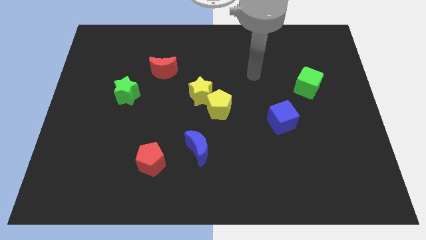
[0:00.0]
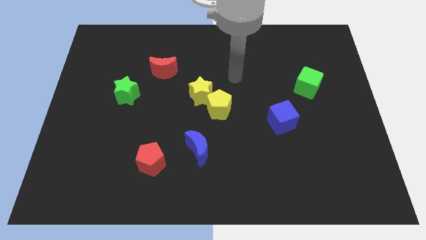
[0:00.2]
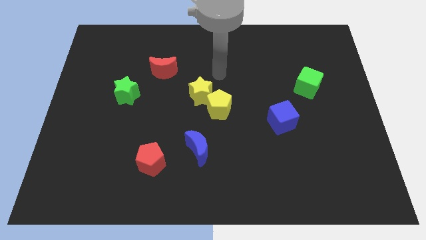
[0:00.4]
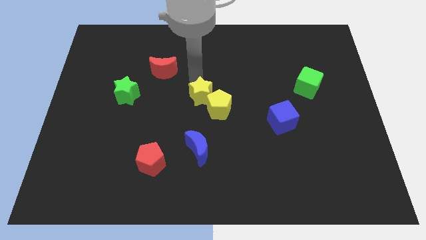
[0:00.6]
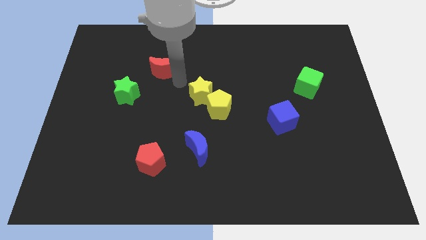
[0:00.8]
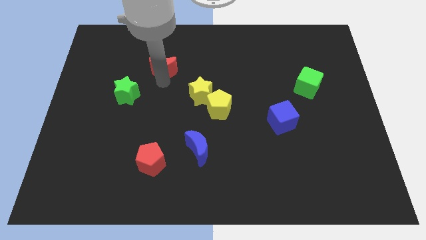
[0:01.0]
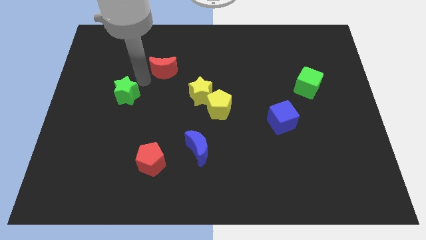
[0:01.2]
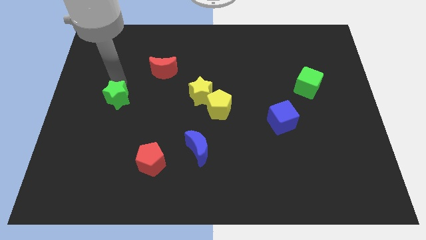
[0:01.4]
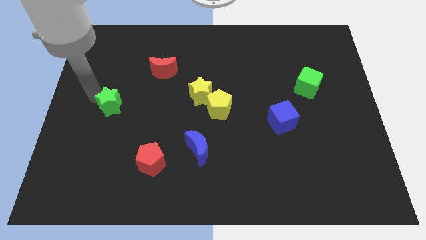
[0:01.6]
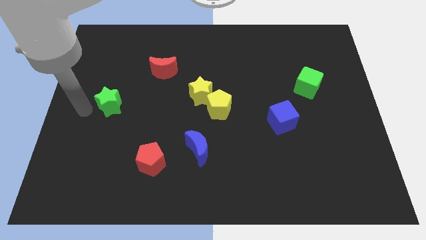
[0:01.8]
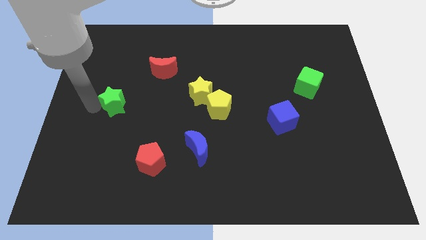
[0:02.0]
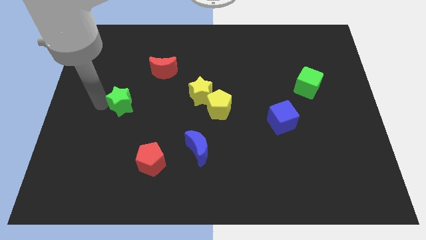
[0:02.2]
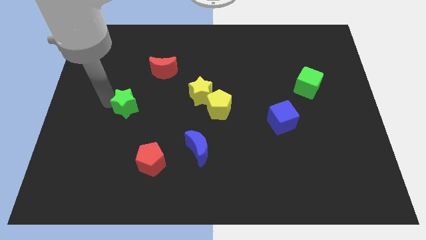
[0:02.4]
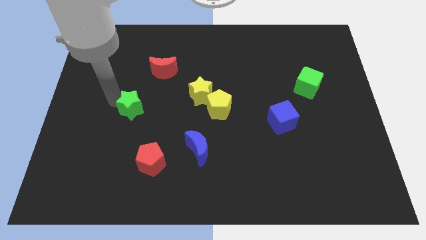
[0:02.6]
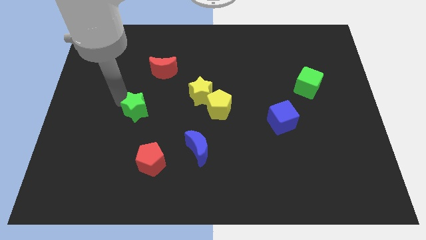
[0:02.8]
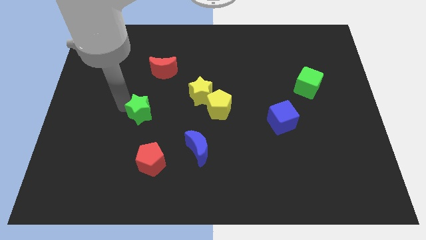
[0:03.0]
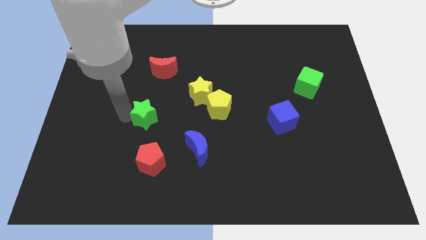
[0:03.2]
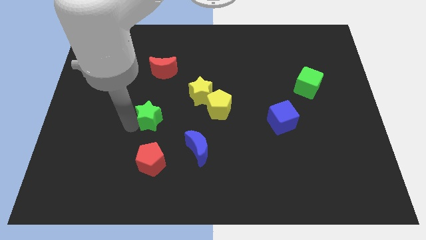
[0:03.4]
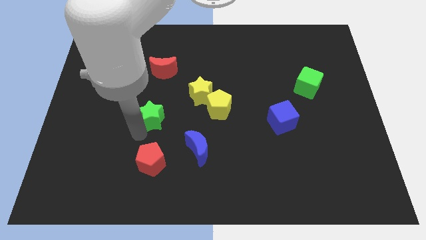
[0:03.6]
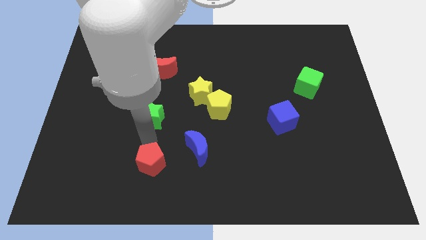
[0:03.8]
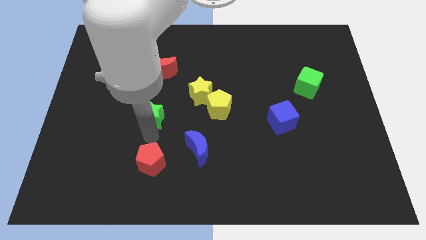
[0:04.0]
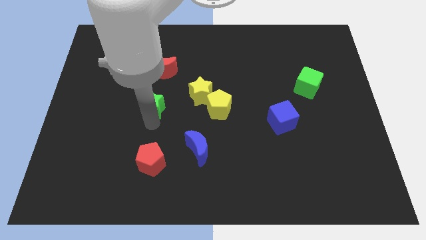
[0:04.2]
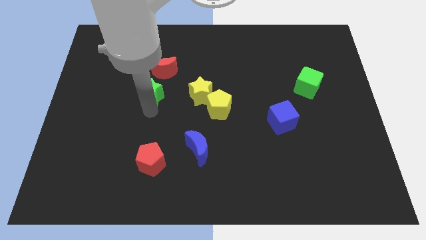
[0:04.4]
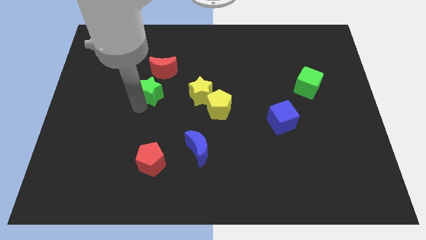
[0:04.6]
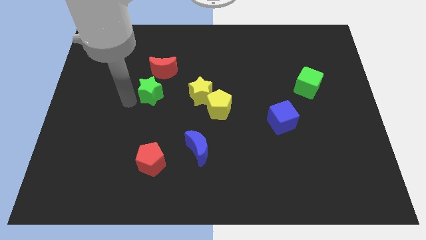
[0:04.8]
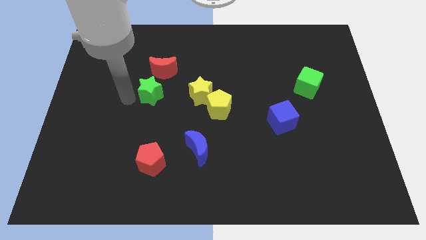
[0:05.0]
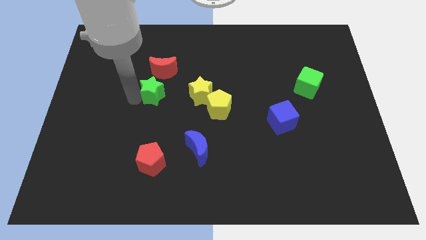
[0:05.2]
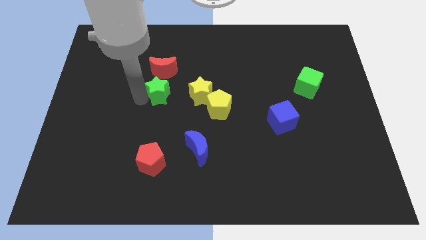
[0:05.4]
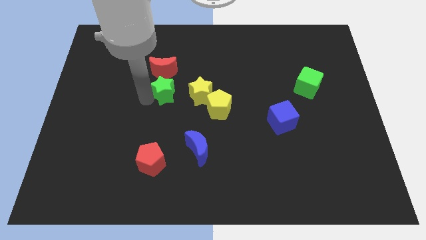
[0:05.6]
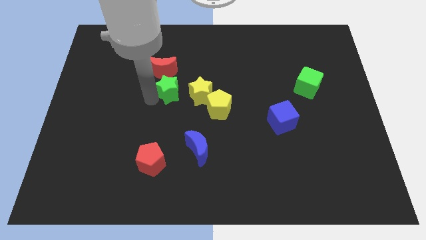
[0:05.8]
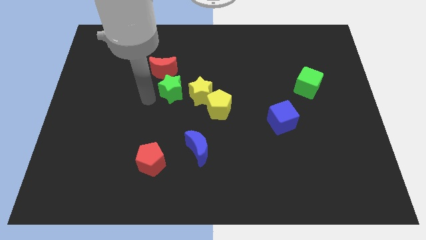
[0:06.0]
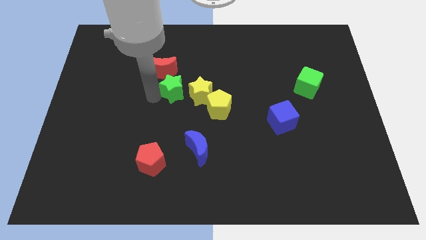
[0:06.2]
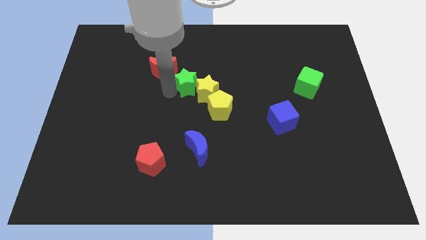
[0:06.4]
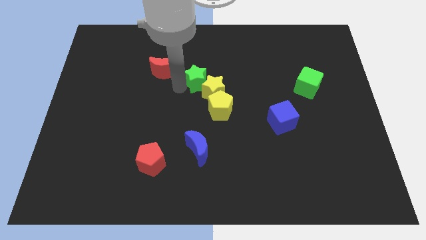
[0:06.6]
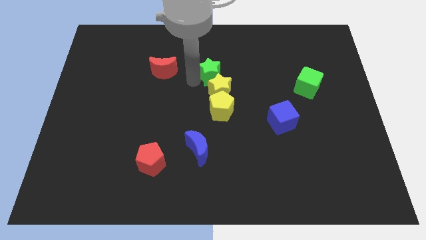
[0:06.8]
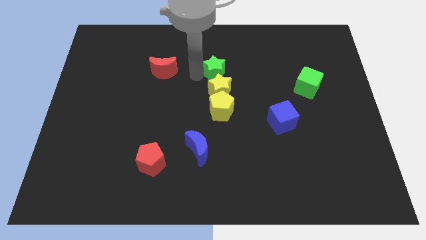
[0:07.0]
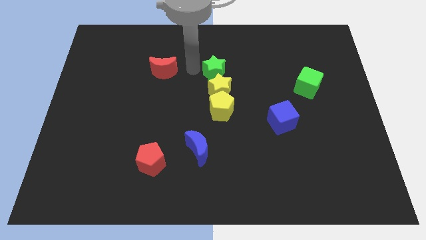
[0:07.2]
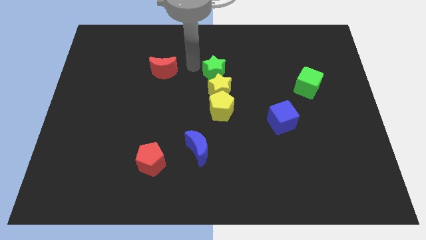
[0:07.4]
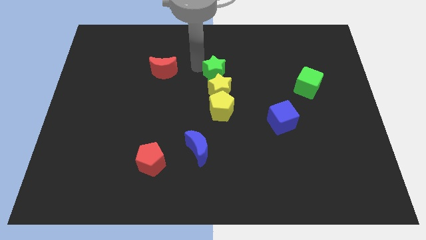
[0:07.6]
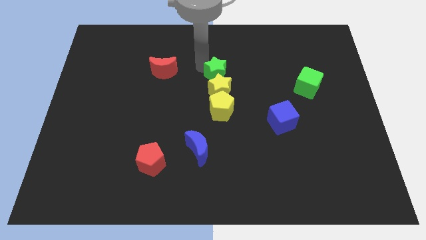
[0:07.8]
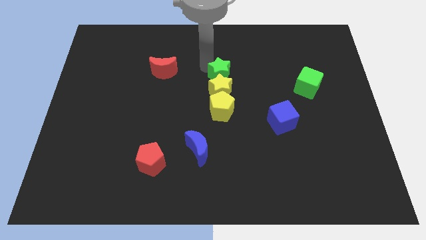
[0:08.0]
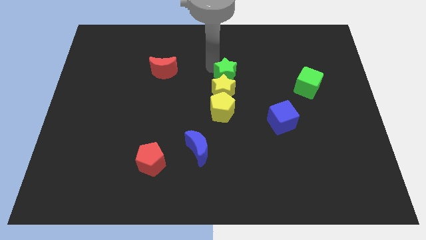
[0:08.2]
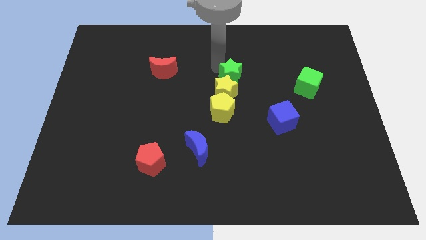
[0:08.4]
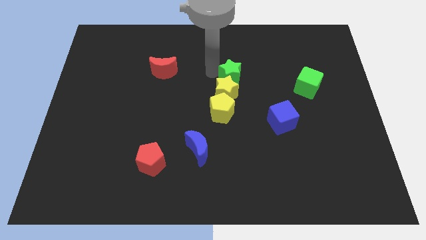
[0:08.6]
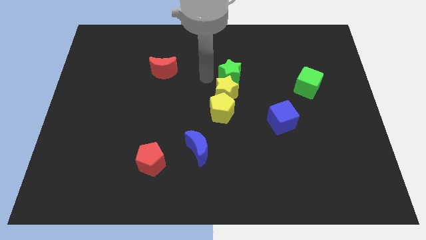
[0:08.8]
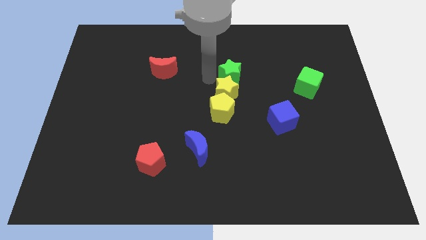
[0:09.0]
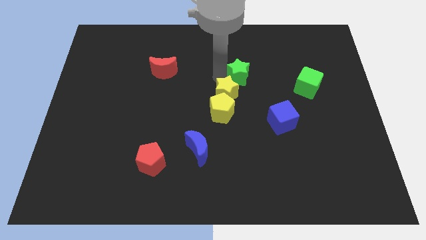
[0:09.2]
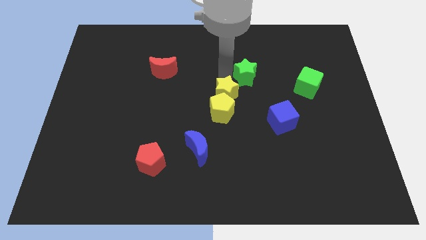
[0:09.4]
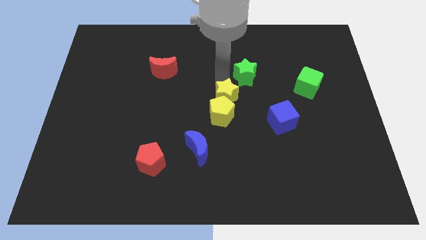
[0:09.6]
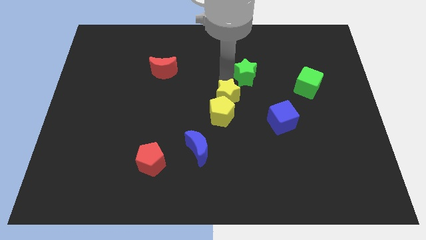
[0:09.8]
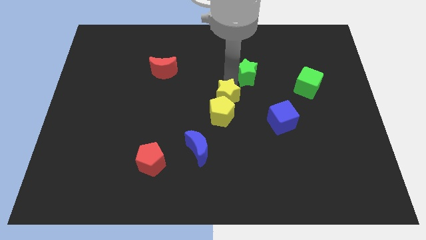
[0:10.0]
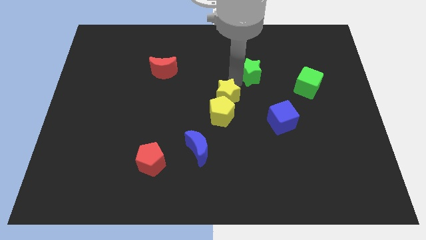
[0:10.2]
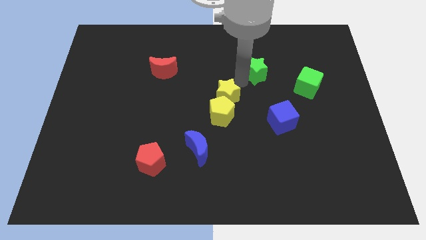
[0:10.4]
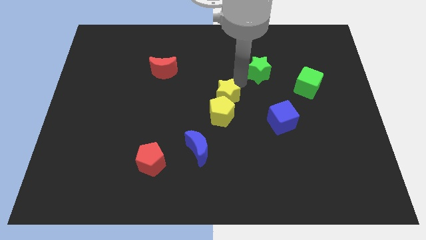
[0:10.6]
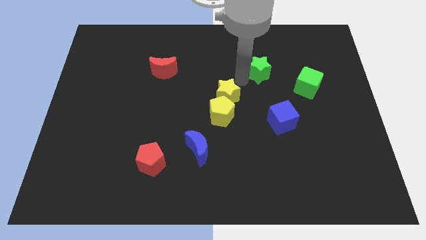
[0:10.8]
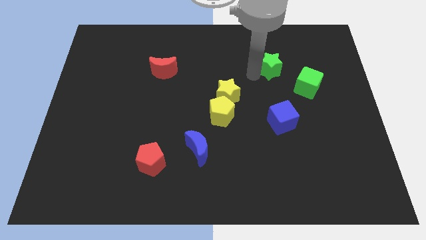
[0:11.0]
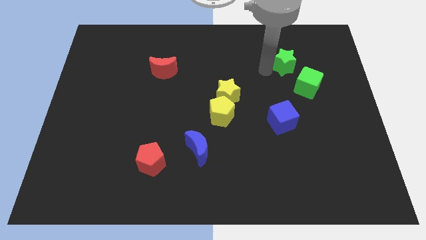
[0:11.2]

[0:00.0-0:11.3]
put the green star above the green cube
